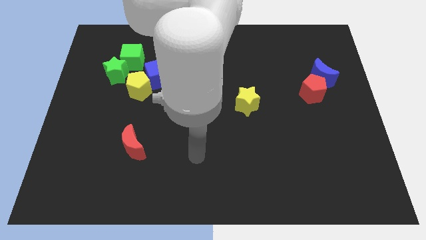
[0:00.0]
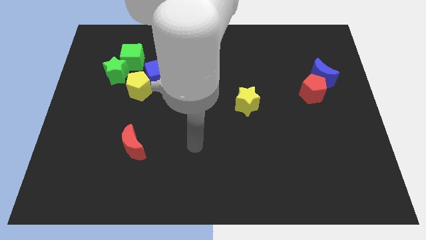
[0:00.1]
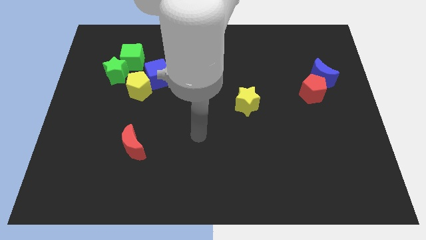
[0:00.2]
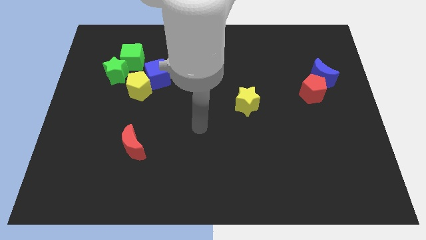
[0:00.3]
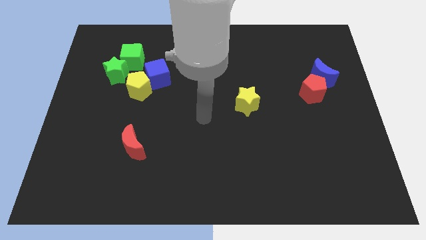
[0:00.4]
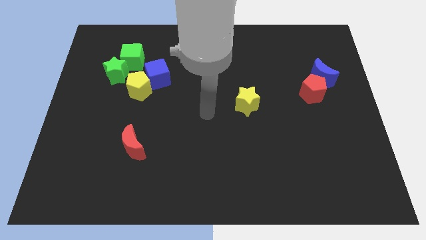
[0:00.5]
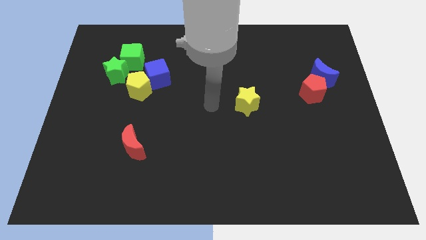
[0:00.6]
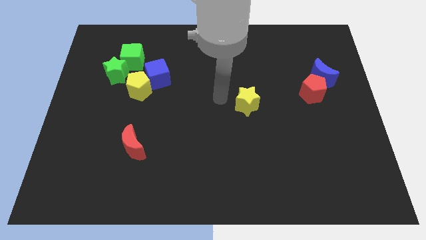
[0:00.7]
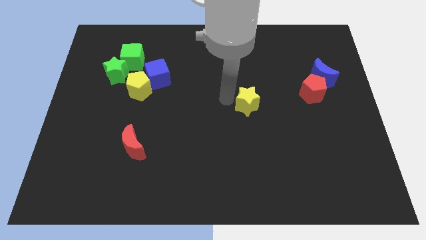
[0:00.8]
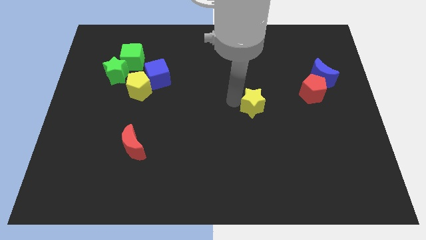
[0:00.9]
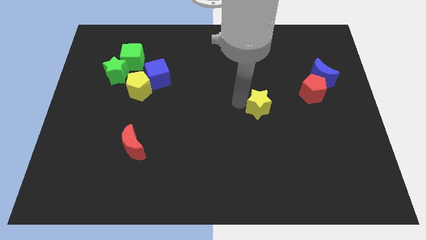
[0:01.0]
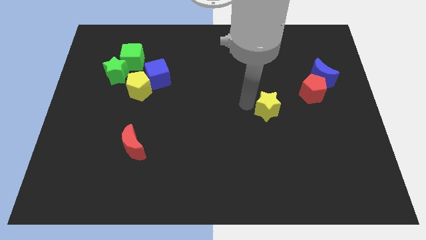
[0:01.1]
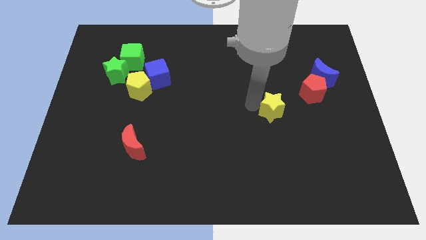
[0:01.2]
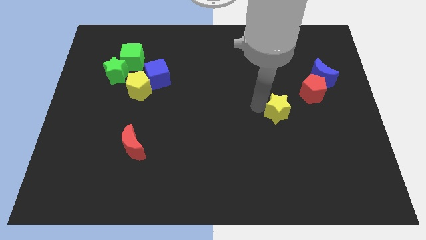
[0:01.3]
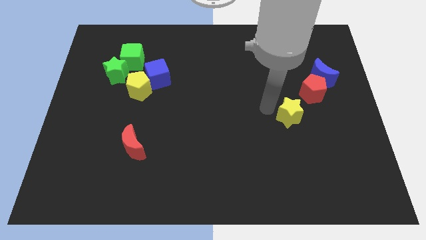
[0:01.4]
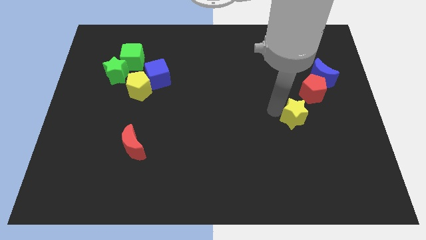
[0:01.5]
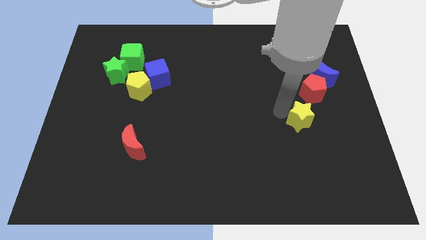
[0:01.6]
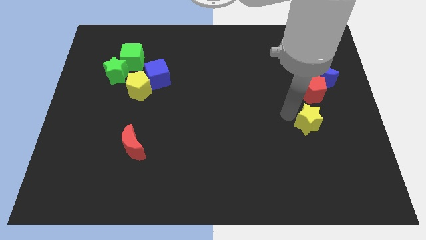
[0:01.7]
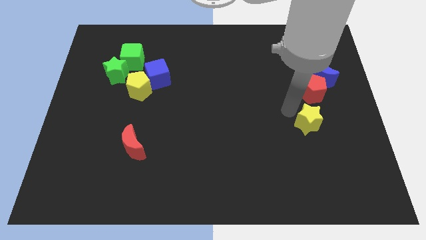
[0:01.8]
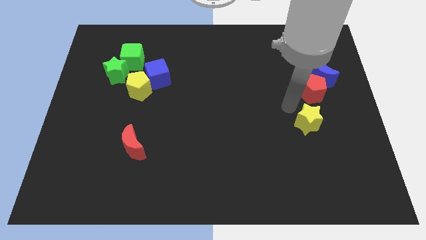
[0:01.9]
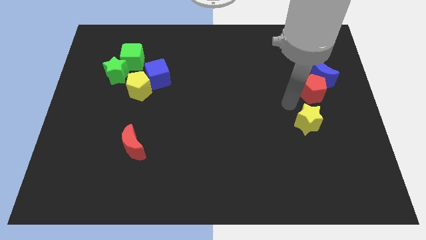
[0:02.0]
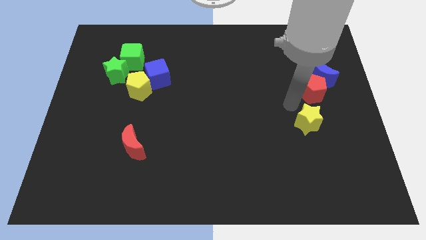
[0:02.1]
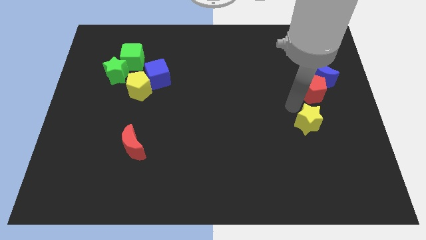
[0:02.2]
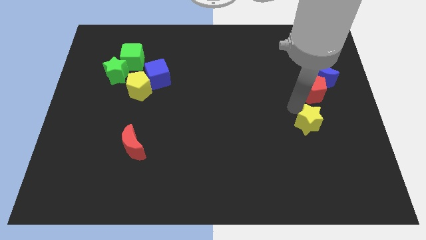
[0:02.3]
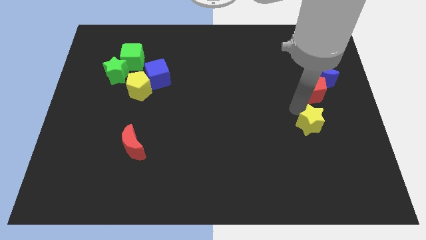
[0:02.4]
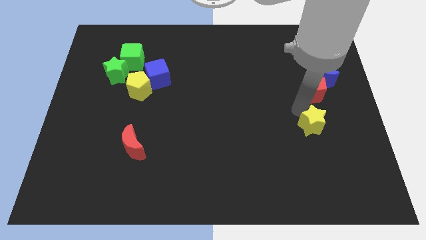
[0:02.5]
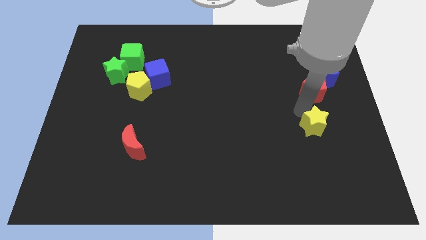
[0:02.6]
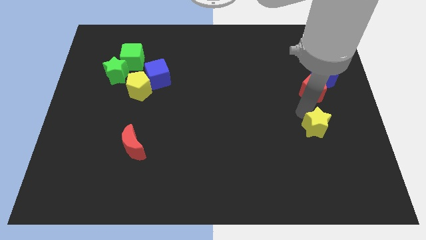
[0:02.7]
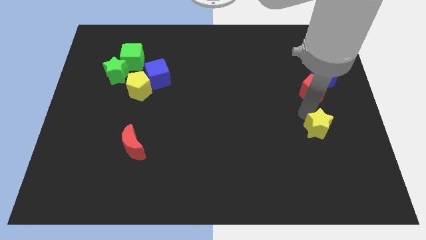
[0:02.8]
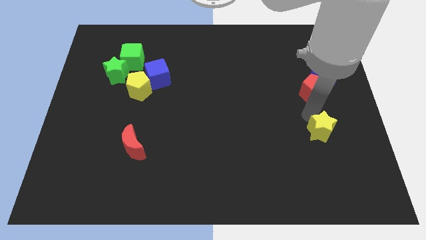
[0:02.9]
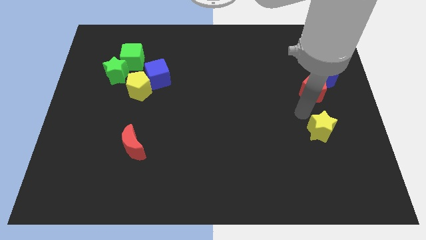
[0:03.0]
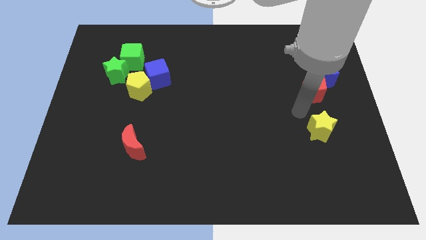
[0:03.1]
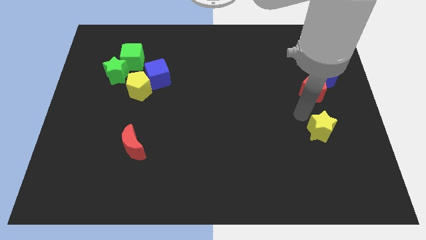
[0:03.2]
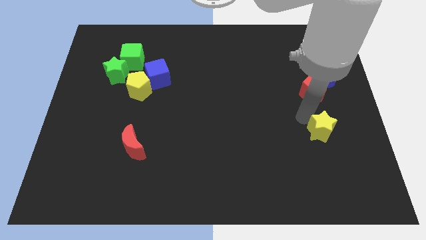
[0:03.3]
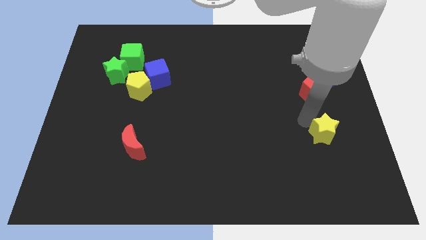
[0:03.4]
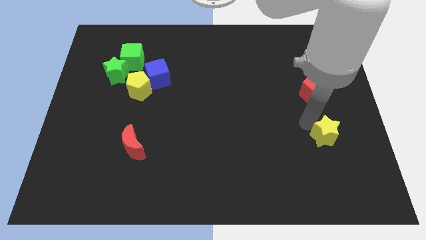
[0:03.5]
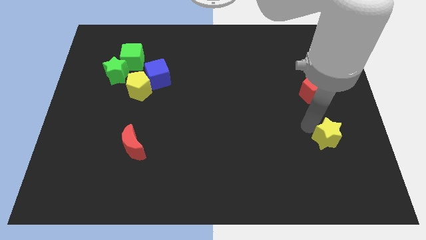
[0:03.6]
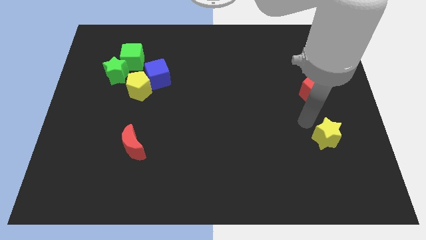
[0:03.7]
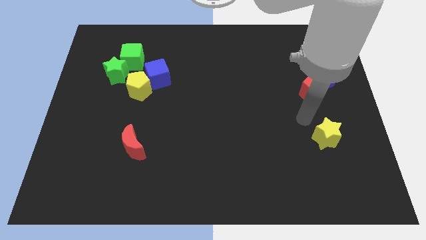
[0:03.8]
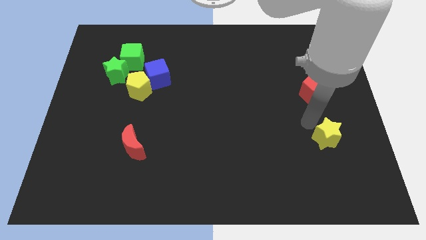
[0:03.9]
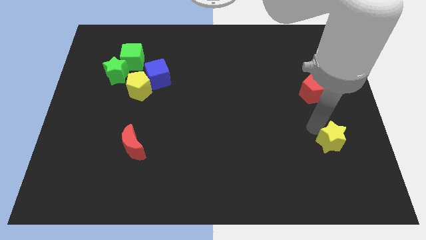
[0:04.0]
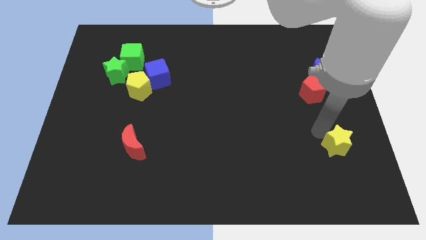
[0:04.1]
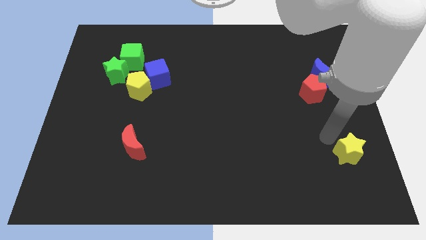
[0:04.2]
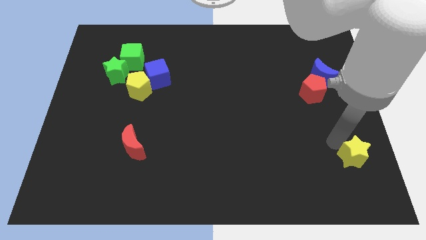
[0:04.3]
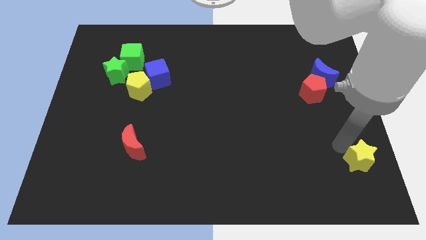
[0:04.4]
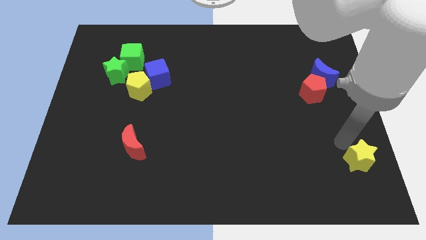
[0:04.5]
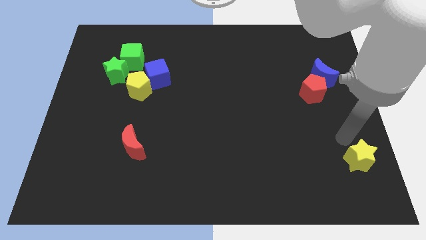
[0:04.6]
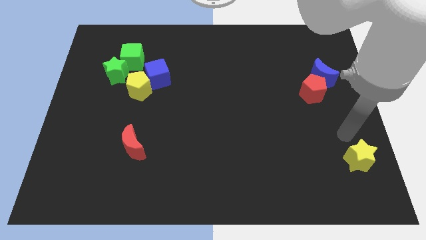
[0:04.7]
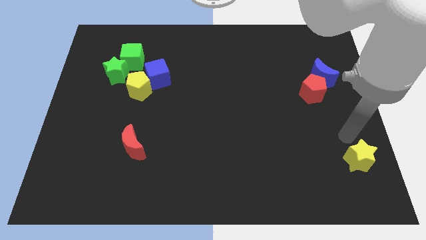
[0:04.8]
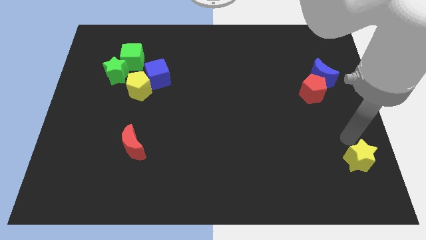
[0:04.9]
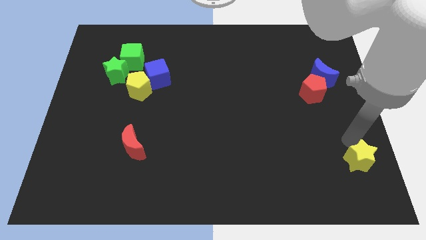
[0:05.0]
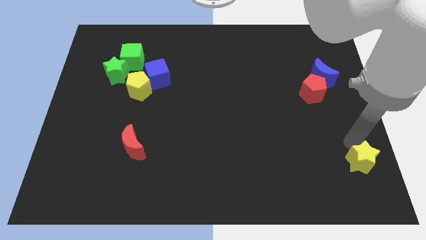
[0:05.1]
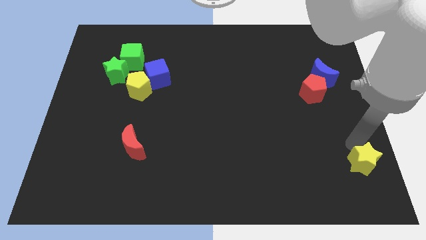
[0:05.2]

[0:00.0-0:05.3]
move the yellow star to the bottom right

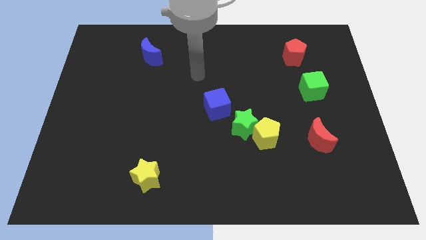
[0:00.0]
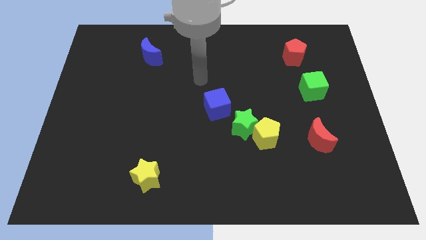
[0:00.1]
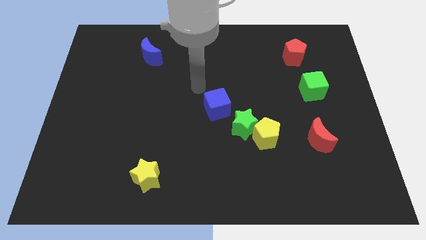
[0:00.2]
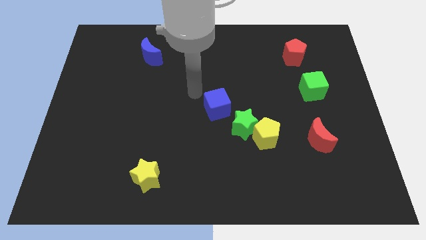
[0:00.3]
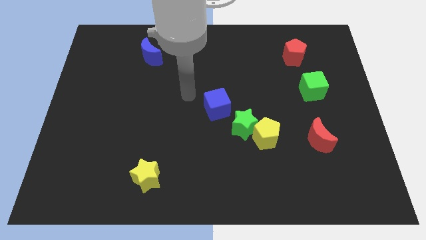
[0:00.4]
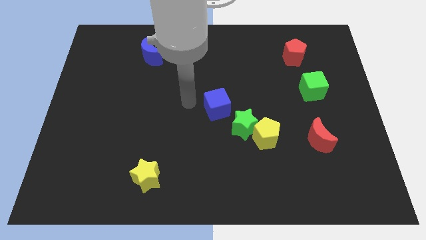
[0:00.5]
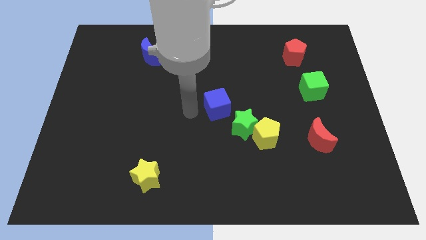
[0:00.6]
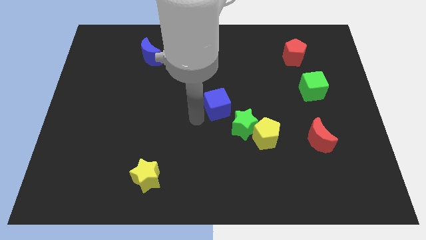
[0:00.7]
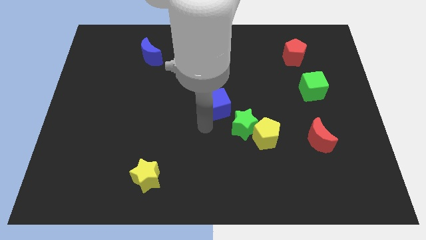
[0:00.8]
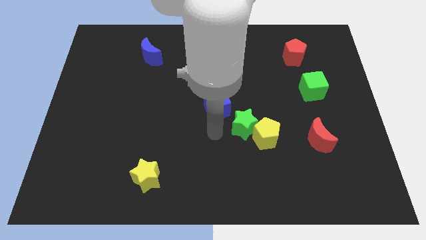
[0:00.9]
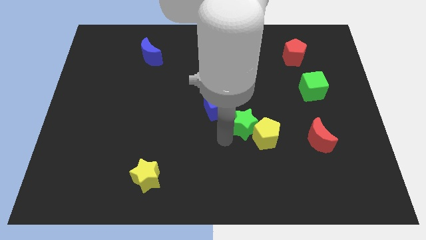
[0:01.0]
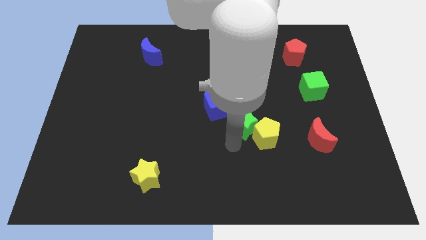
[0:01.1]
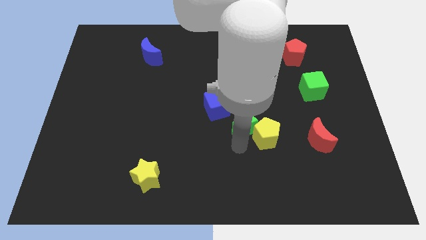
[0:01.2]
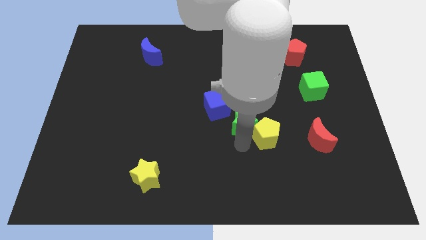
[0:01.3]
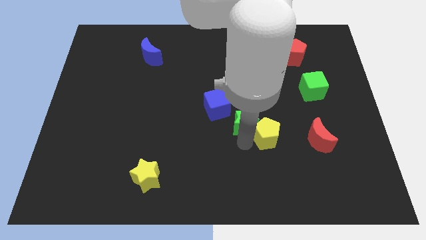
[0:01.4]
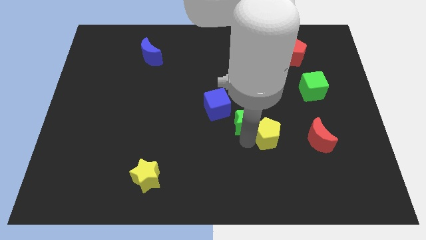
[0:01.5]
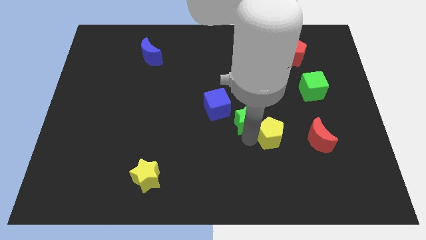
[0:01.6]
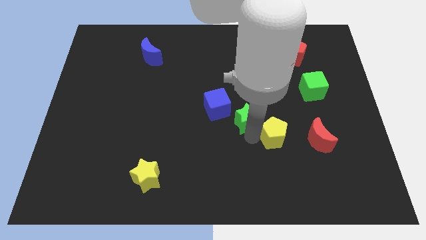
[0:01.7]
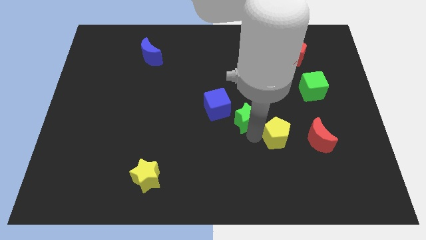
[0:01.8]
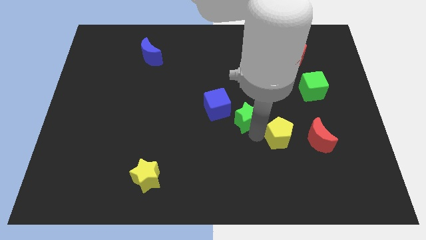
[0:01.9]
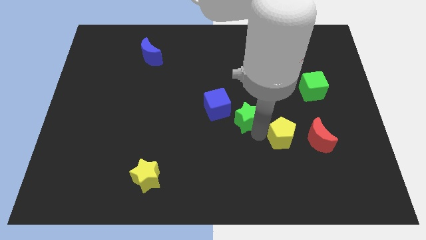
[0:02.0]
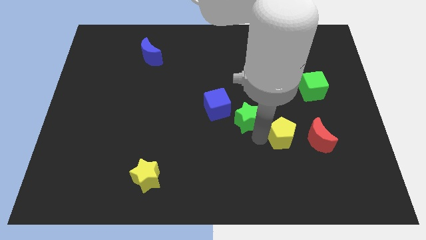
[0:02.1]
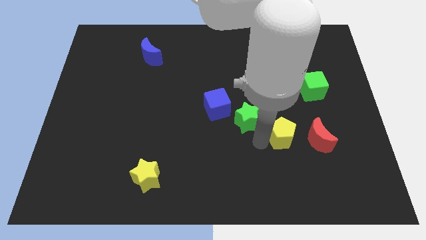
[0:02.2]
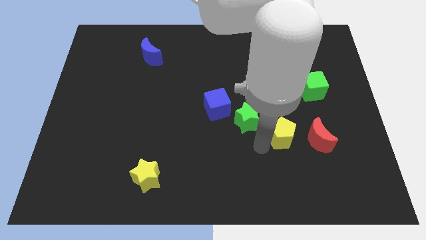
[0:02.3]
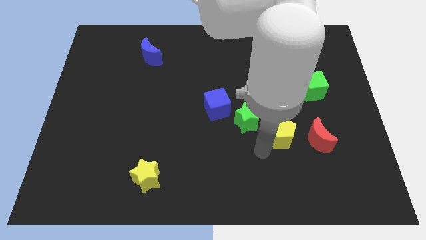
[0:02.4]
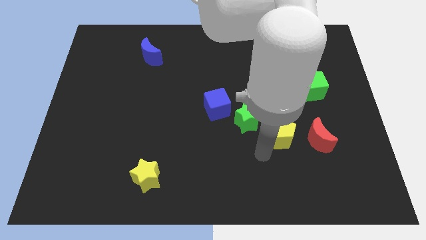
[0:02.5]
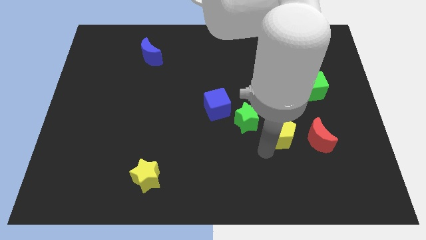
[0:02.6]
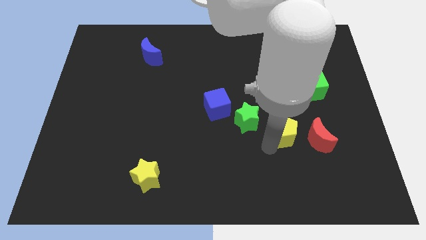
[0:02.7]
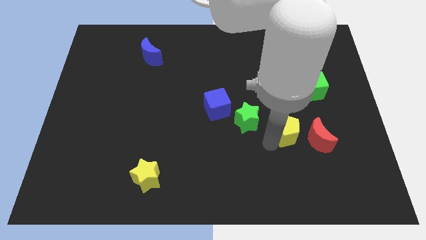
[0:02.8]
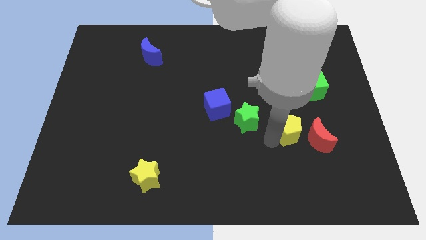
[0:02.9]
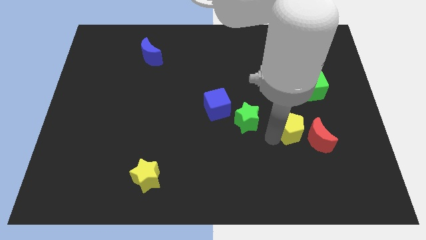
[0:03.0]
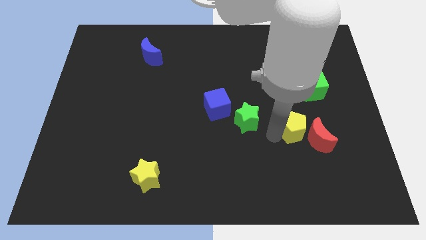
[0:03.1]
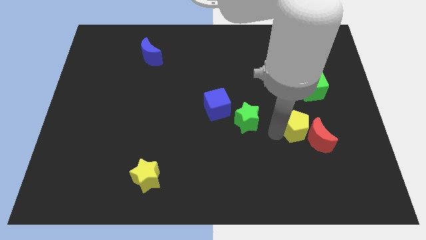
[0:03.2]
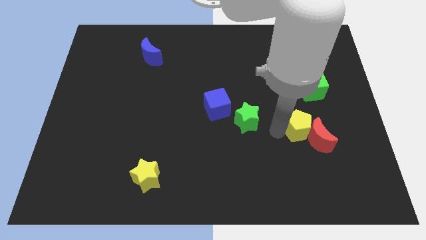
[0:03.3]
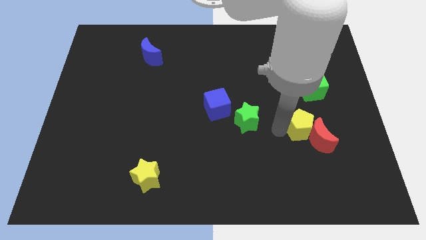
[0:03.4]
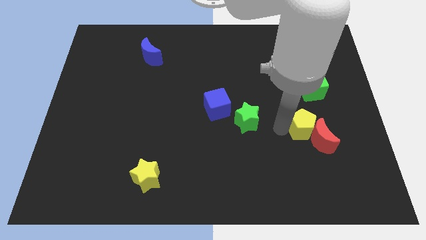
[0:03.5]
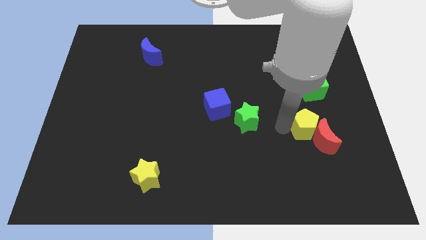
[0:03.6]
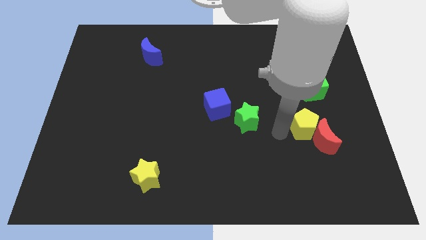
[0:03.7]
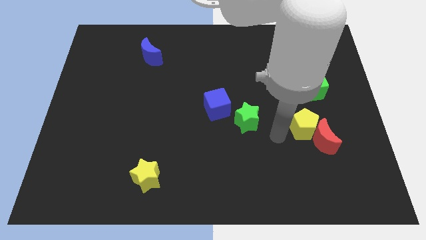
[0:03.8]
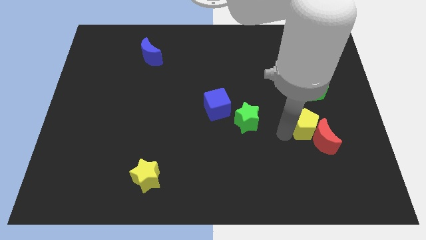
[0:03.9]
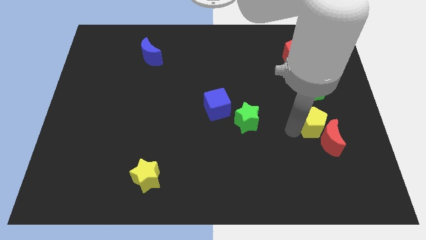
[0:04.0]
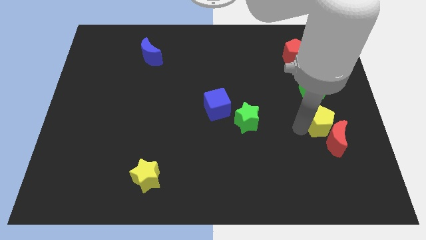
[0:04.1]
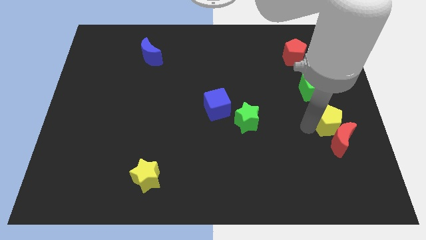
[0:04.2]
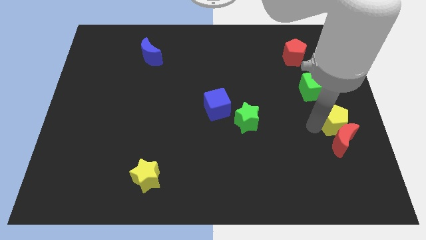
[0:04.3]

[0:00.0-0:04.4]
push the yellow pentagon to the right side
